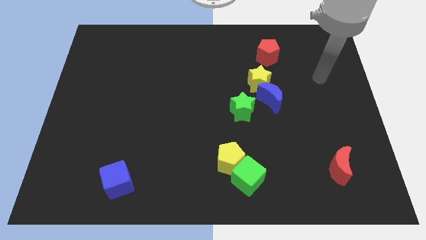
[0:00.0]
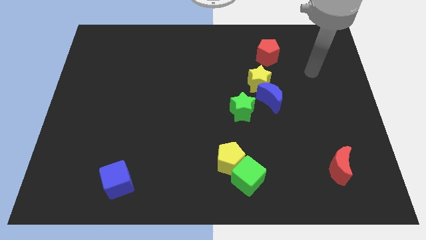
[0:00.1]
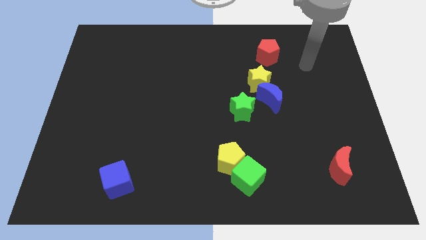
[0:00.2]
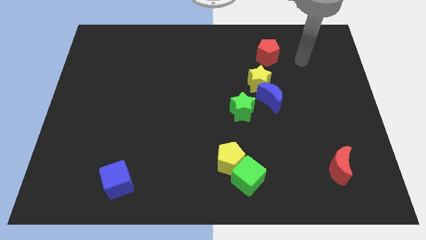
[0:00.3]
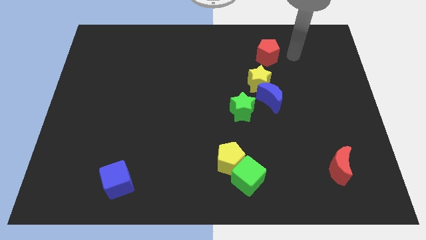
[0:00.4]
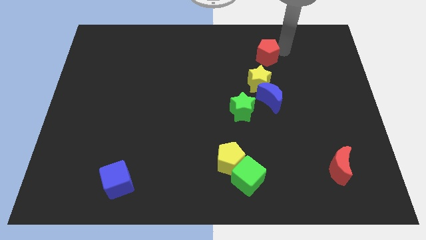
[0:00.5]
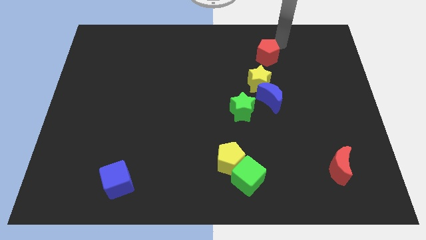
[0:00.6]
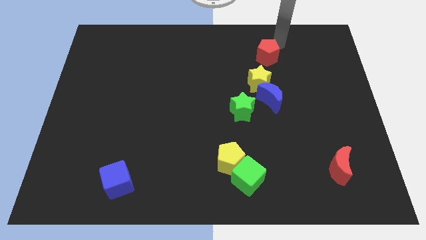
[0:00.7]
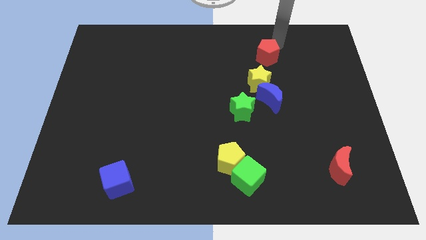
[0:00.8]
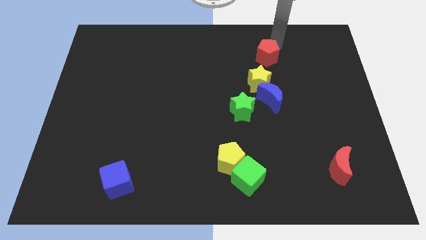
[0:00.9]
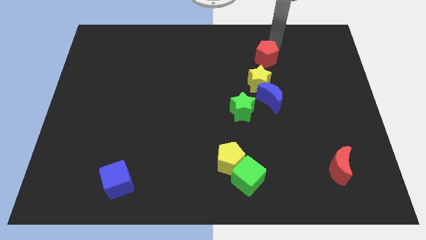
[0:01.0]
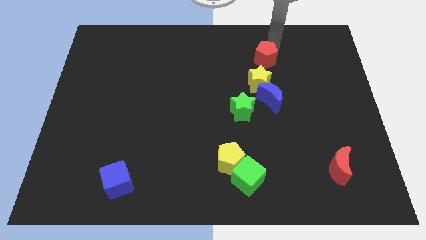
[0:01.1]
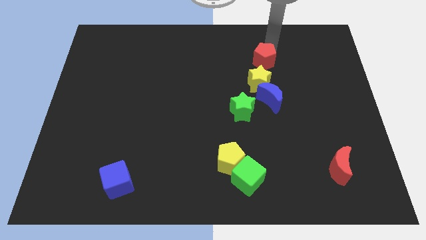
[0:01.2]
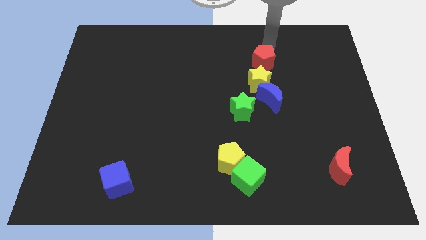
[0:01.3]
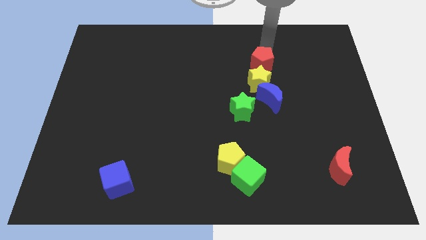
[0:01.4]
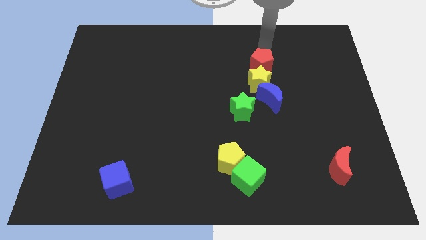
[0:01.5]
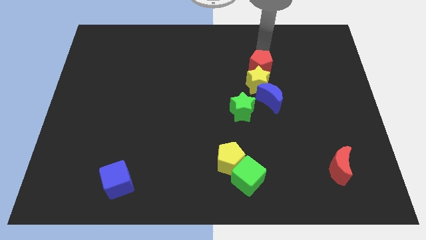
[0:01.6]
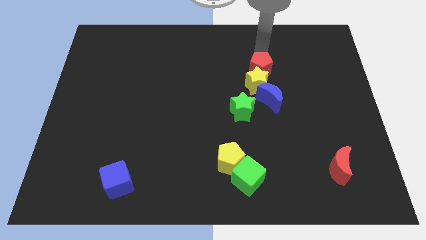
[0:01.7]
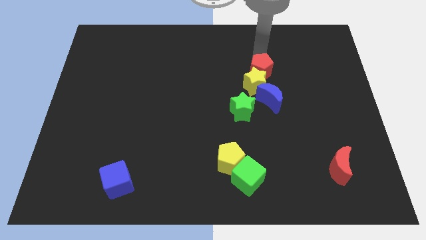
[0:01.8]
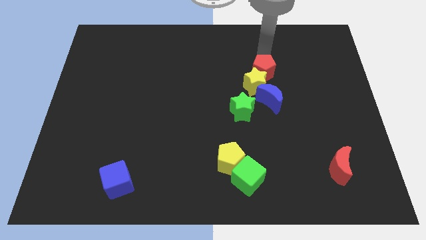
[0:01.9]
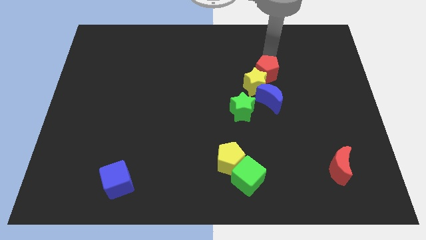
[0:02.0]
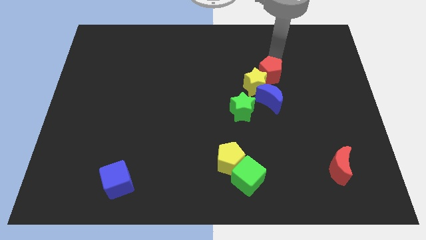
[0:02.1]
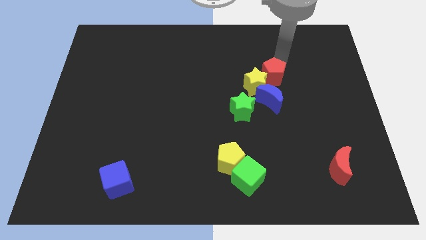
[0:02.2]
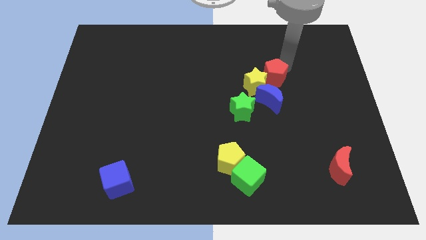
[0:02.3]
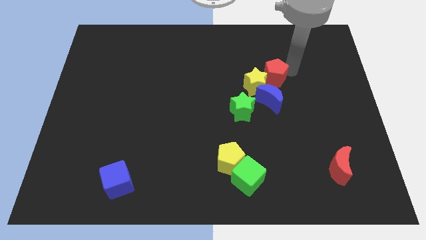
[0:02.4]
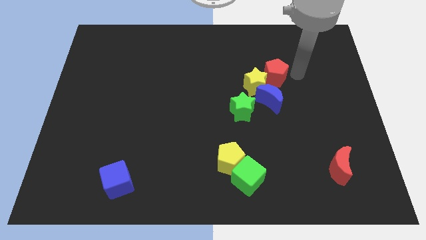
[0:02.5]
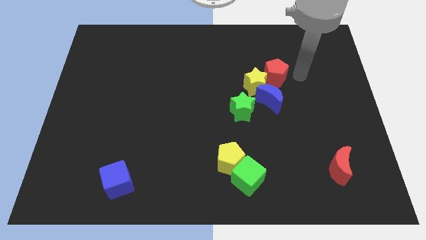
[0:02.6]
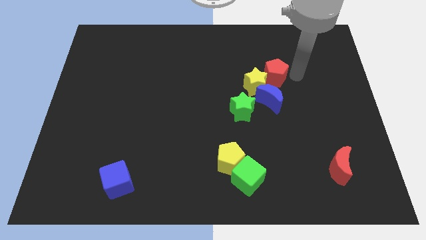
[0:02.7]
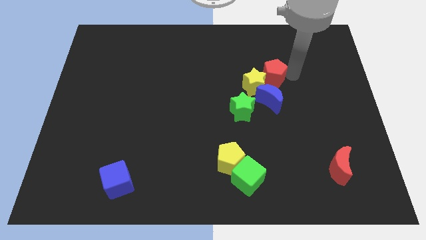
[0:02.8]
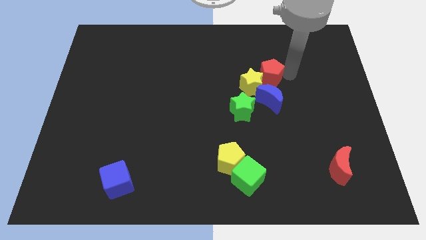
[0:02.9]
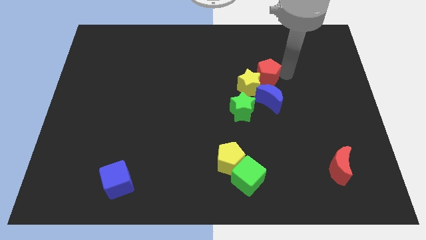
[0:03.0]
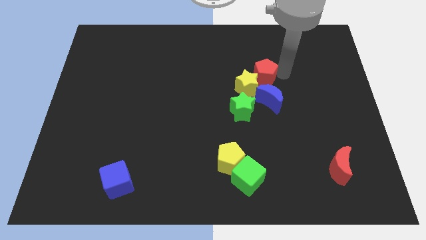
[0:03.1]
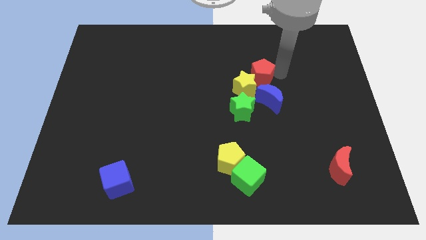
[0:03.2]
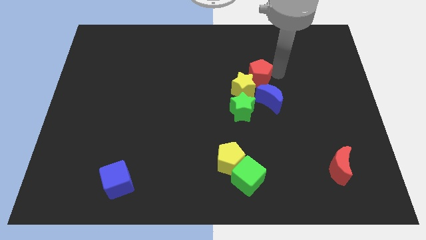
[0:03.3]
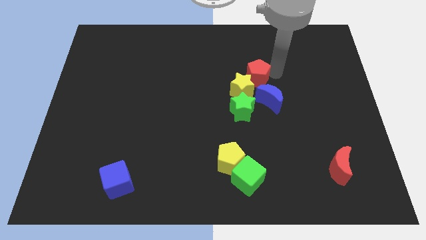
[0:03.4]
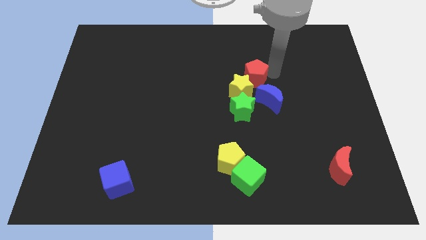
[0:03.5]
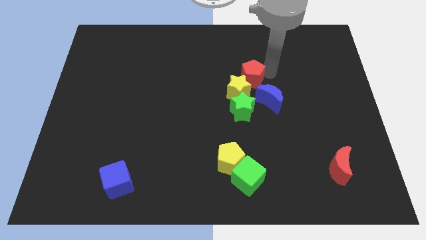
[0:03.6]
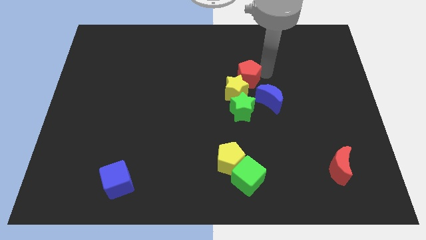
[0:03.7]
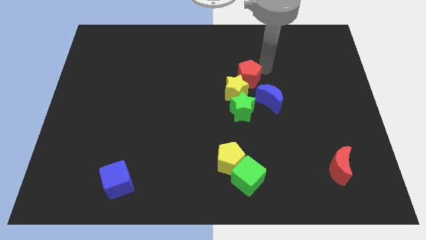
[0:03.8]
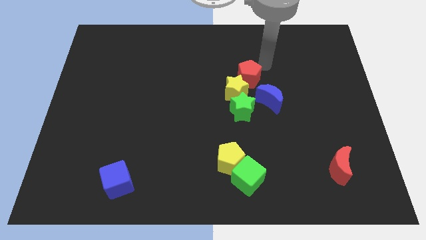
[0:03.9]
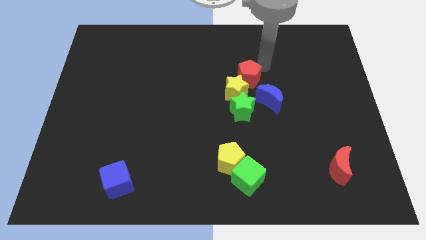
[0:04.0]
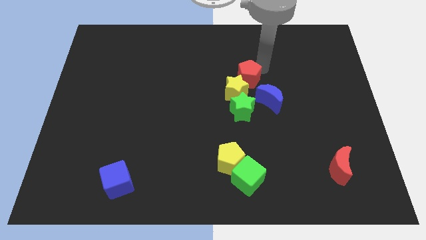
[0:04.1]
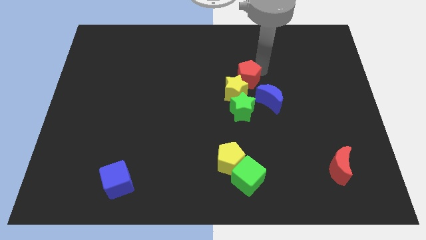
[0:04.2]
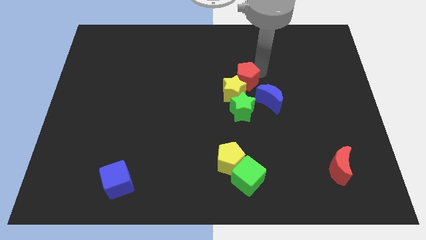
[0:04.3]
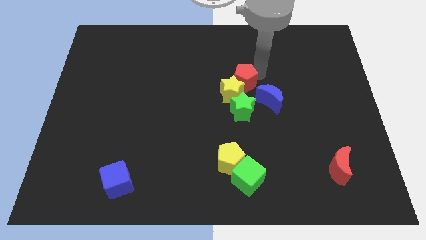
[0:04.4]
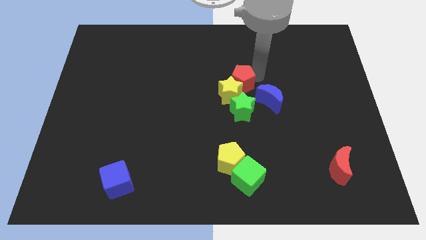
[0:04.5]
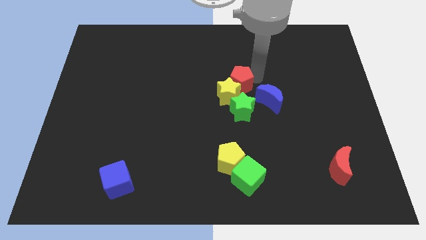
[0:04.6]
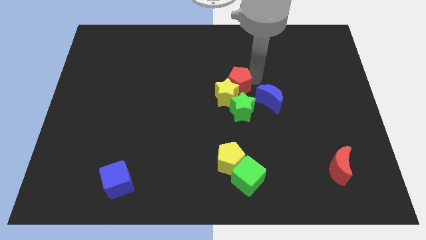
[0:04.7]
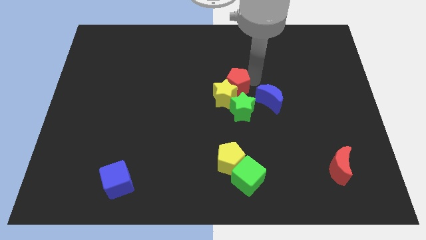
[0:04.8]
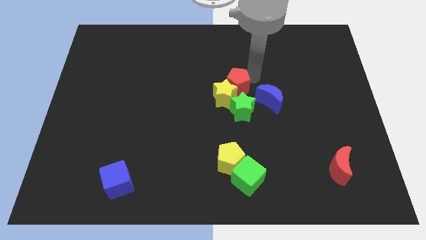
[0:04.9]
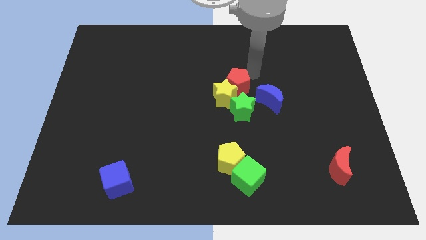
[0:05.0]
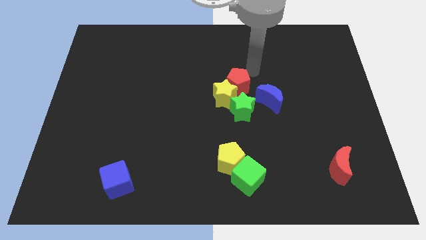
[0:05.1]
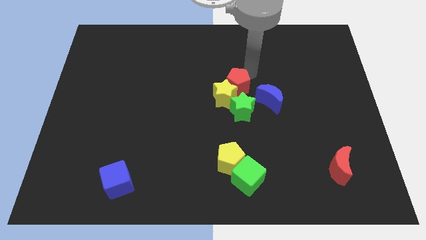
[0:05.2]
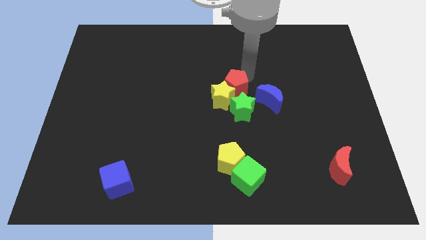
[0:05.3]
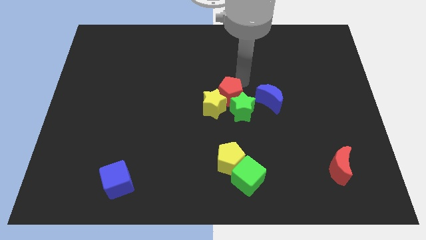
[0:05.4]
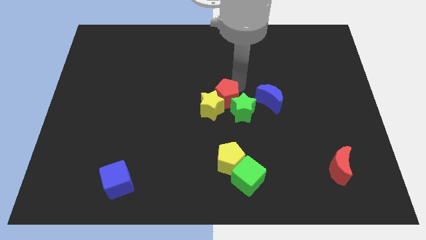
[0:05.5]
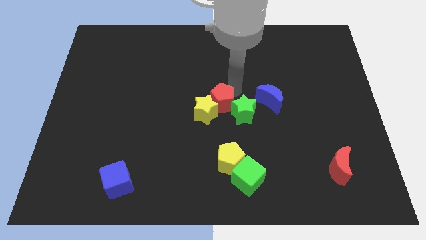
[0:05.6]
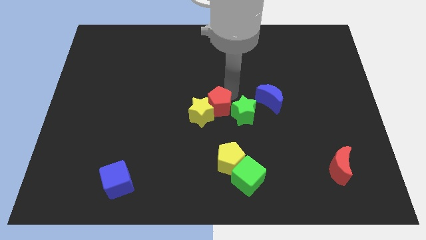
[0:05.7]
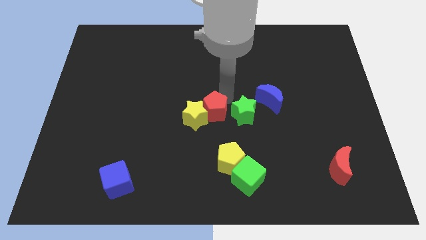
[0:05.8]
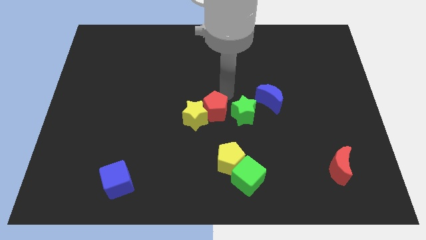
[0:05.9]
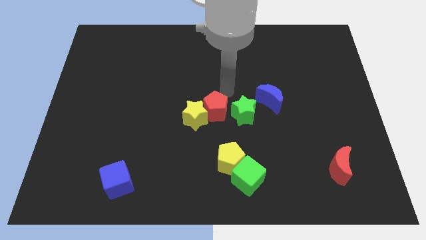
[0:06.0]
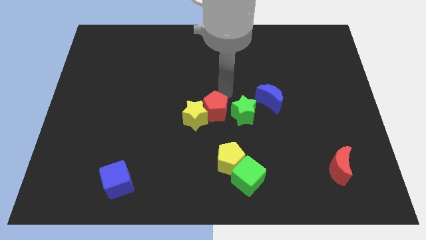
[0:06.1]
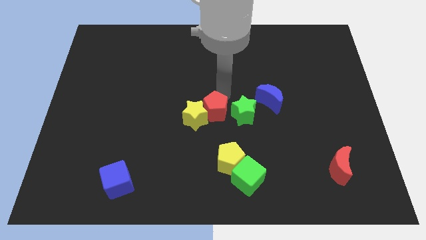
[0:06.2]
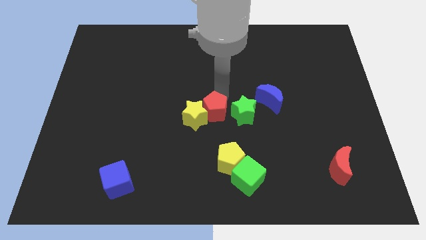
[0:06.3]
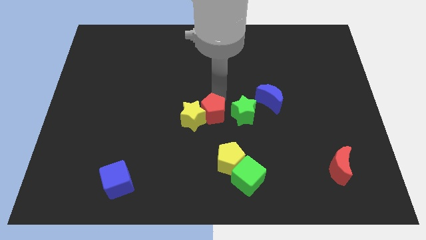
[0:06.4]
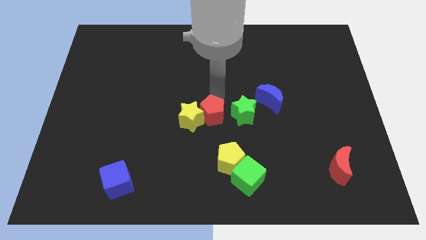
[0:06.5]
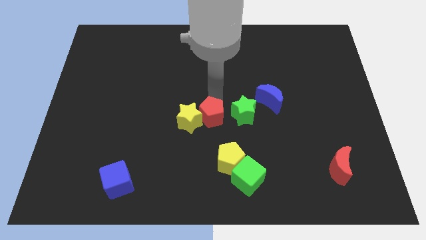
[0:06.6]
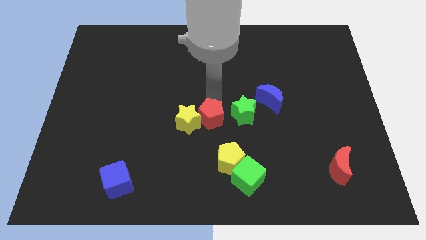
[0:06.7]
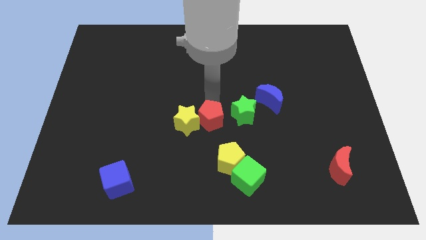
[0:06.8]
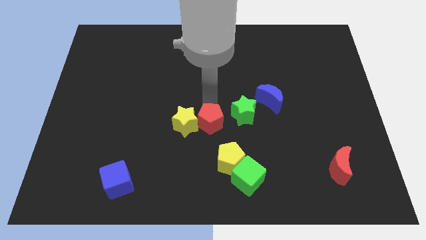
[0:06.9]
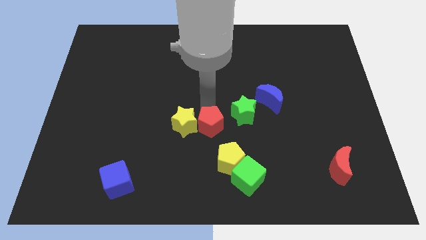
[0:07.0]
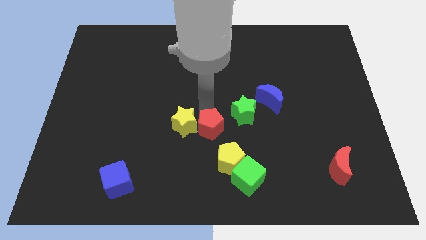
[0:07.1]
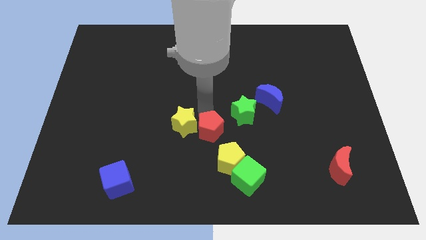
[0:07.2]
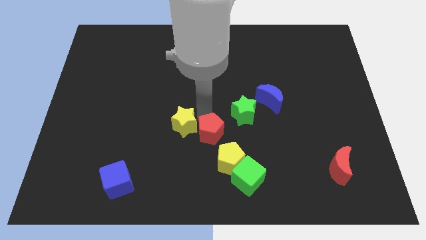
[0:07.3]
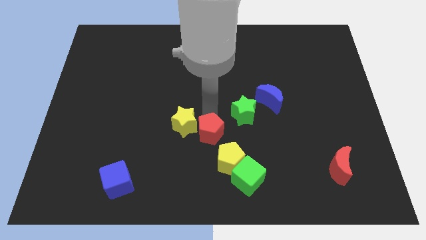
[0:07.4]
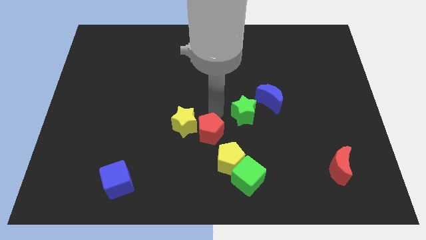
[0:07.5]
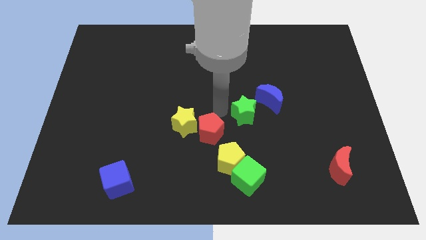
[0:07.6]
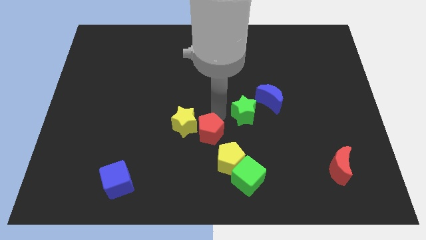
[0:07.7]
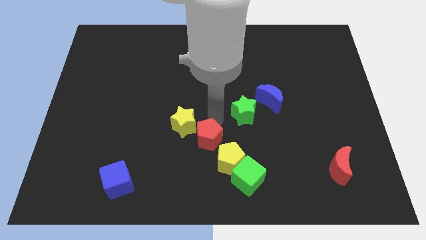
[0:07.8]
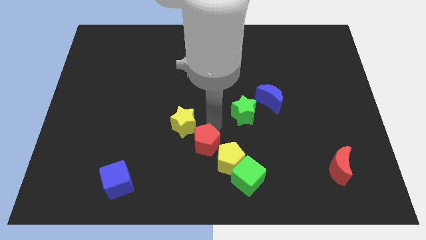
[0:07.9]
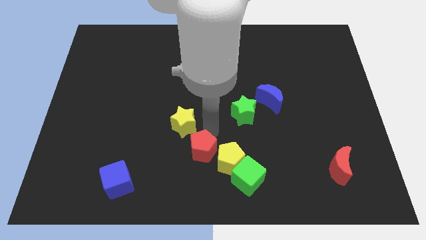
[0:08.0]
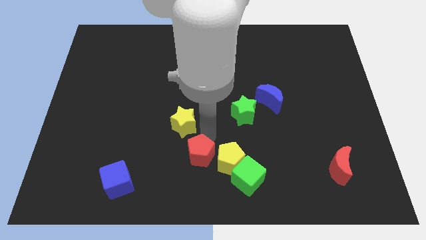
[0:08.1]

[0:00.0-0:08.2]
move the red pentagon to the bottom
